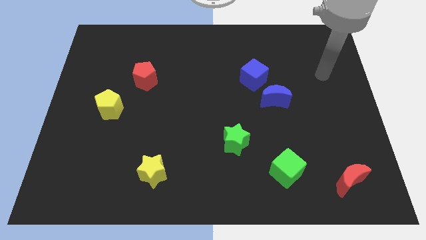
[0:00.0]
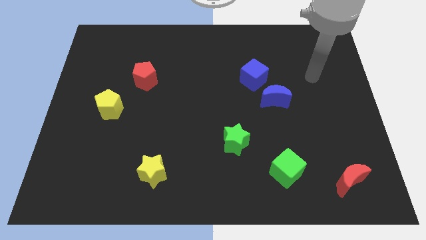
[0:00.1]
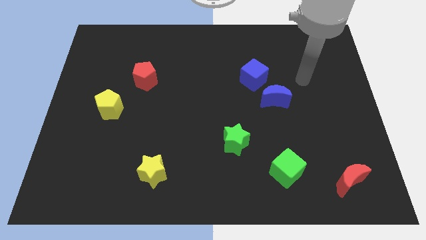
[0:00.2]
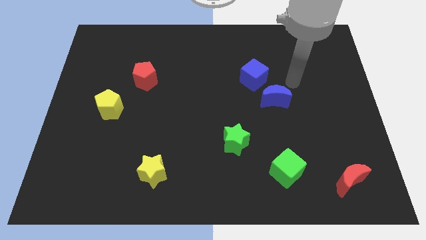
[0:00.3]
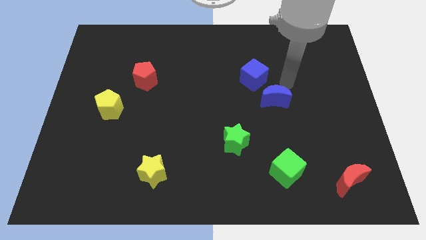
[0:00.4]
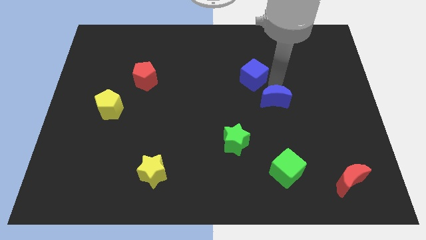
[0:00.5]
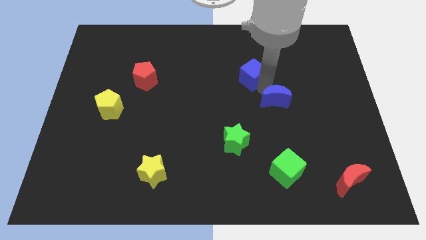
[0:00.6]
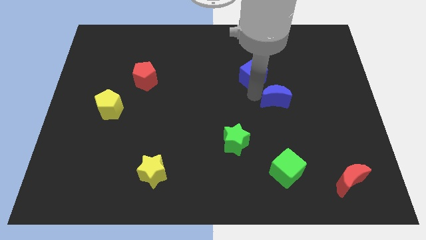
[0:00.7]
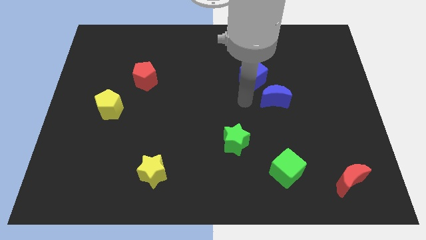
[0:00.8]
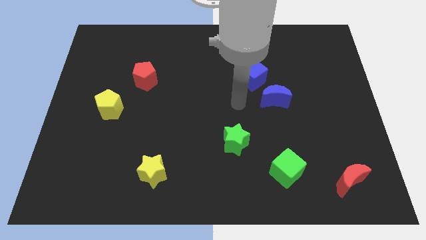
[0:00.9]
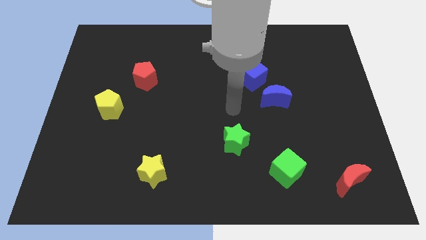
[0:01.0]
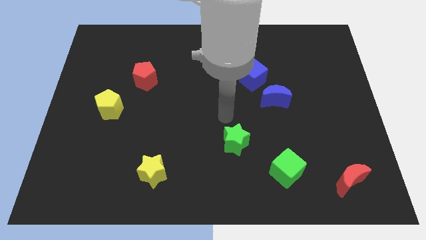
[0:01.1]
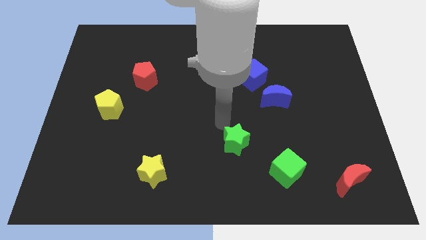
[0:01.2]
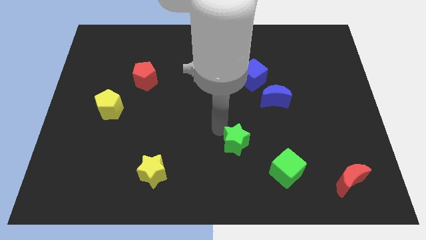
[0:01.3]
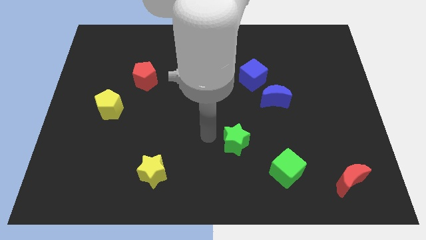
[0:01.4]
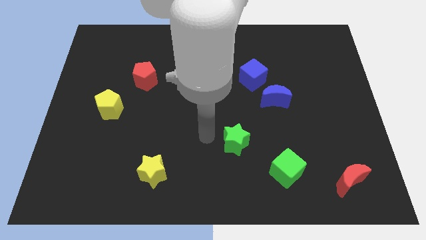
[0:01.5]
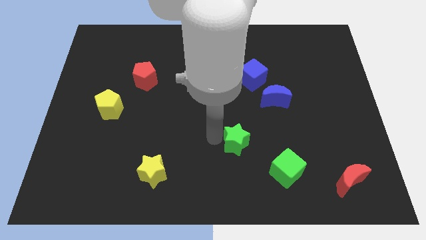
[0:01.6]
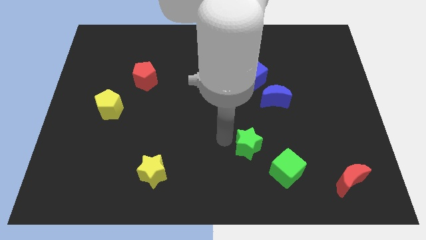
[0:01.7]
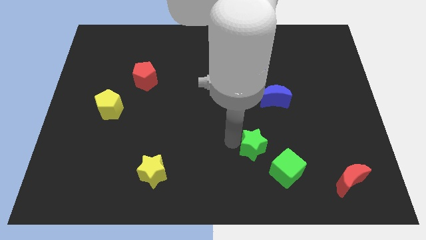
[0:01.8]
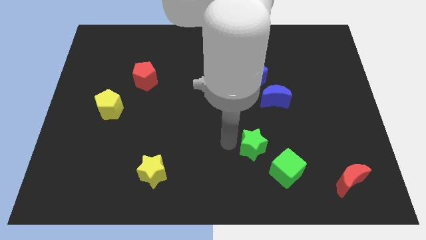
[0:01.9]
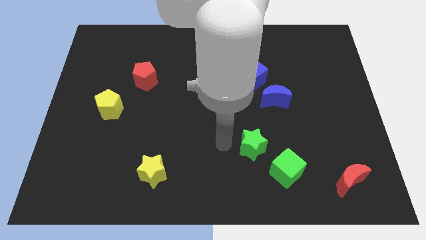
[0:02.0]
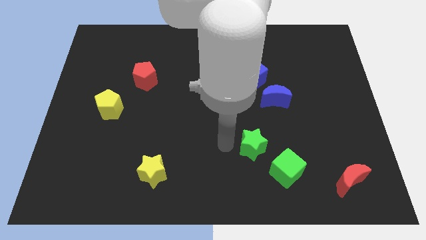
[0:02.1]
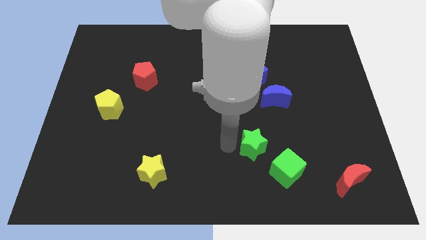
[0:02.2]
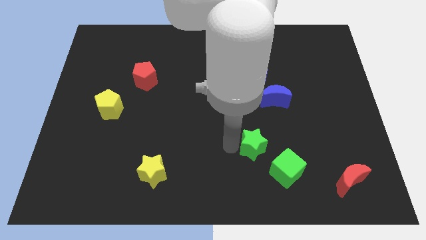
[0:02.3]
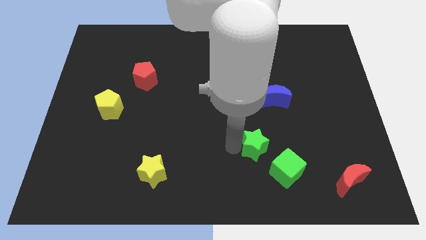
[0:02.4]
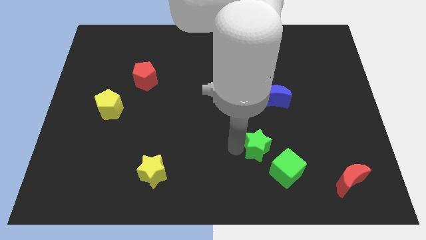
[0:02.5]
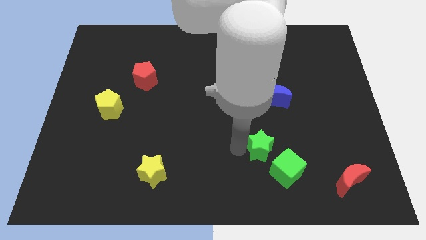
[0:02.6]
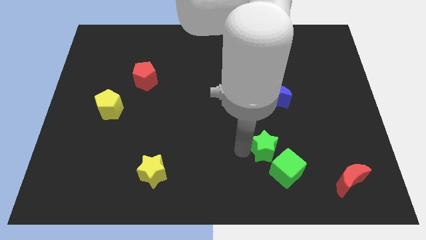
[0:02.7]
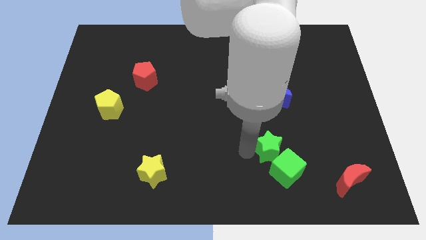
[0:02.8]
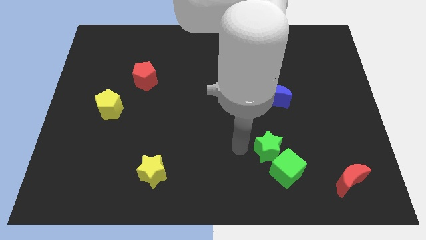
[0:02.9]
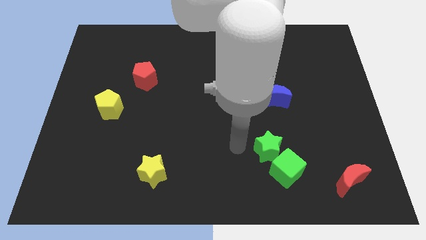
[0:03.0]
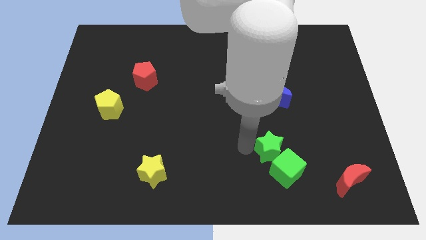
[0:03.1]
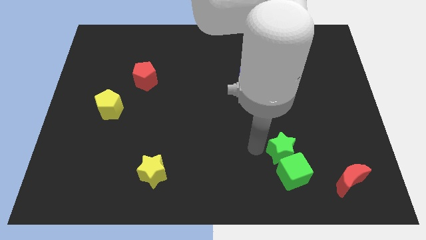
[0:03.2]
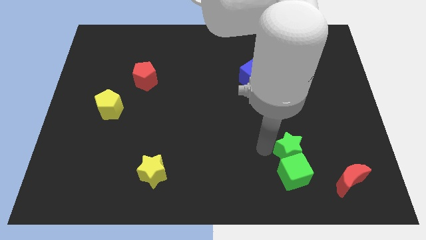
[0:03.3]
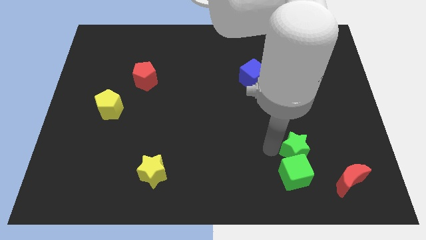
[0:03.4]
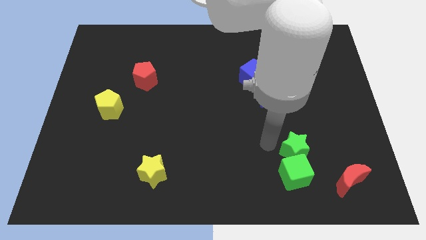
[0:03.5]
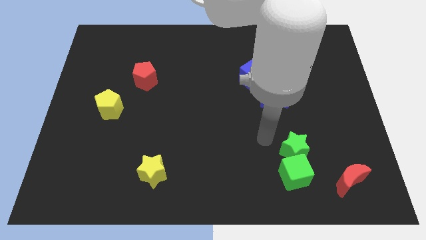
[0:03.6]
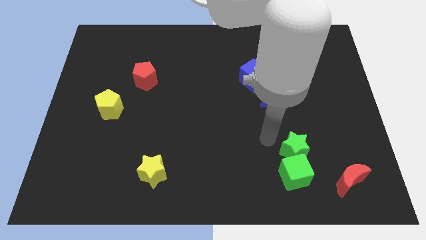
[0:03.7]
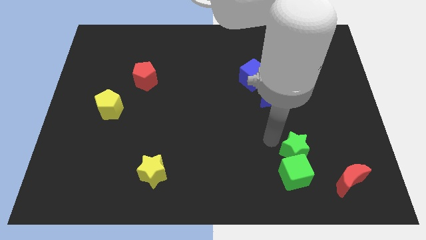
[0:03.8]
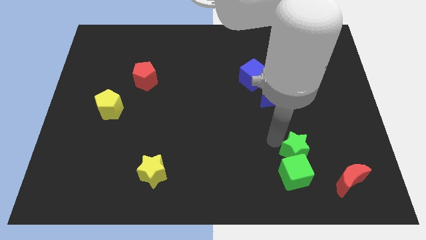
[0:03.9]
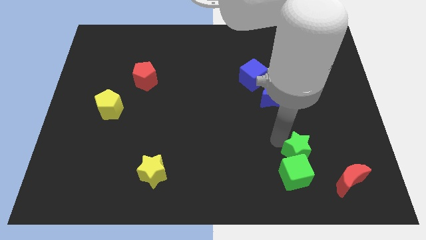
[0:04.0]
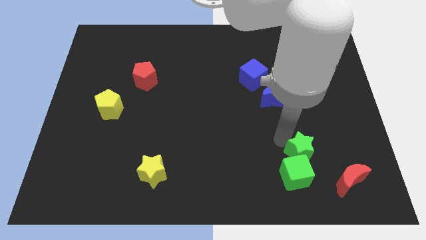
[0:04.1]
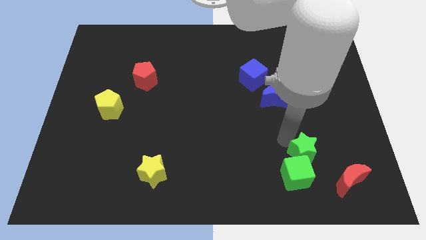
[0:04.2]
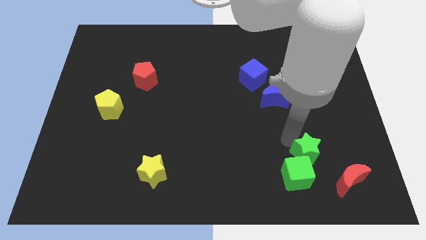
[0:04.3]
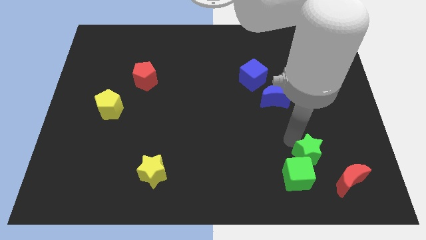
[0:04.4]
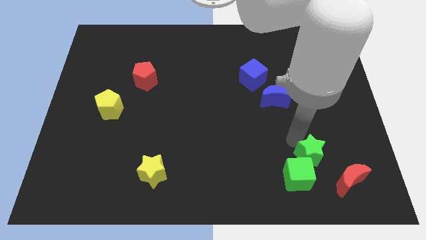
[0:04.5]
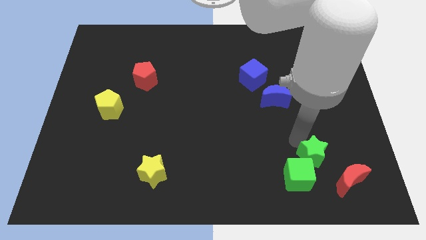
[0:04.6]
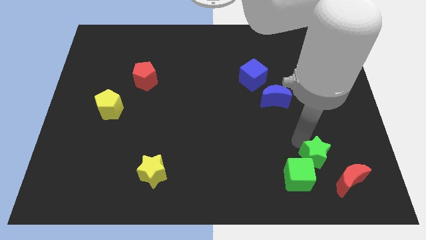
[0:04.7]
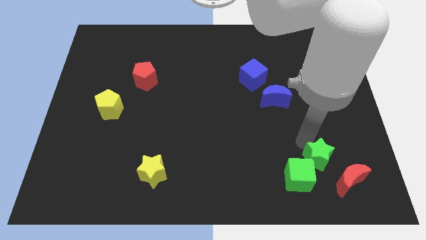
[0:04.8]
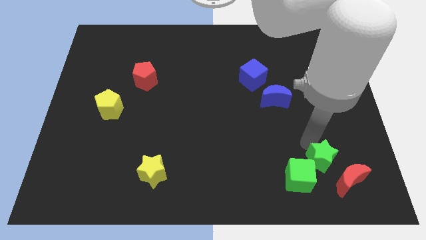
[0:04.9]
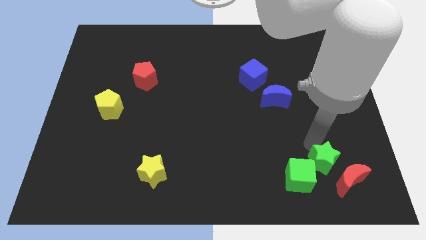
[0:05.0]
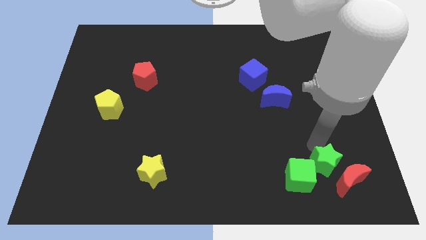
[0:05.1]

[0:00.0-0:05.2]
slide the green star close to the red moon

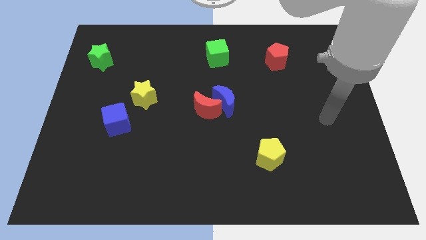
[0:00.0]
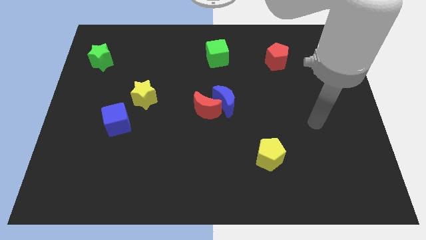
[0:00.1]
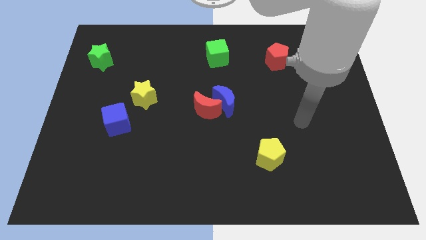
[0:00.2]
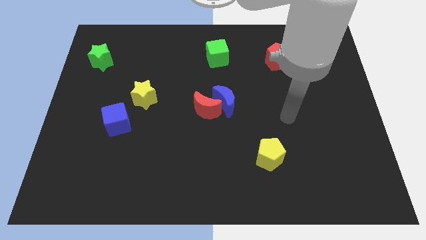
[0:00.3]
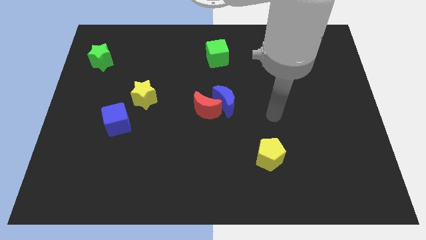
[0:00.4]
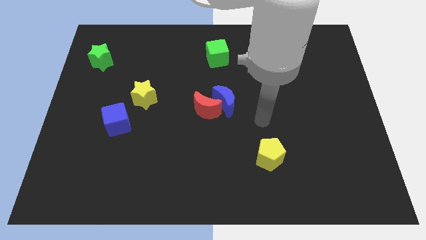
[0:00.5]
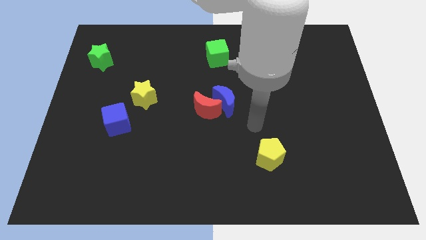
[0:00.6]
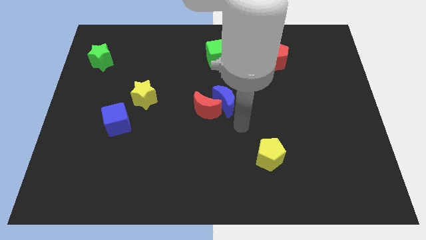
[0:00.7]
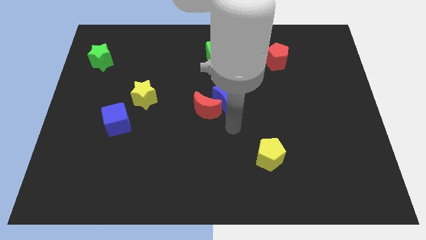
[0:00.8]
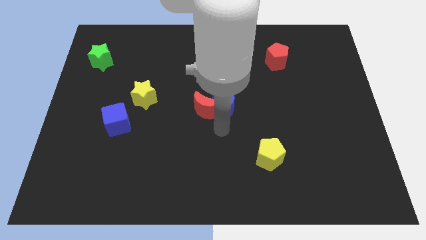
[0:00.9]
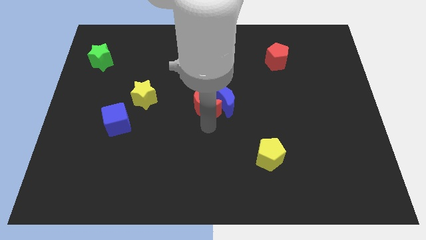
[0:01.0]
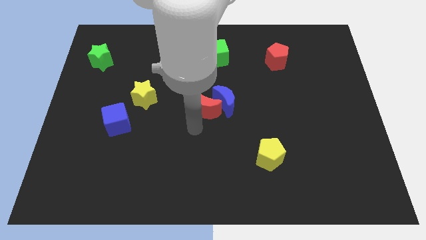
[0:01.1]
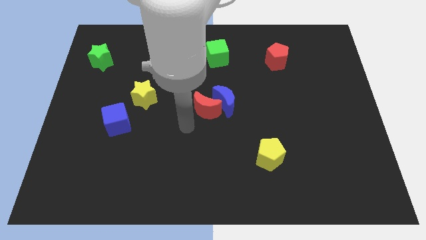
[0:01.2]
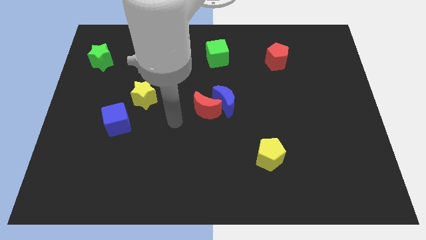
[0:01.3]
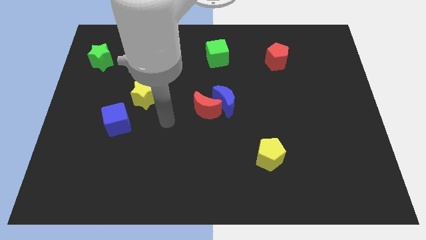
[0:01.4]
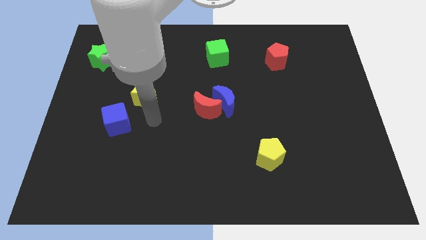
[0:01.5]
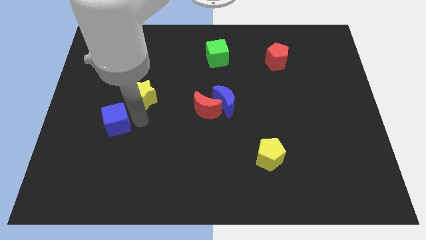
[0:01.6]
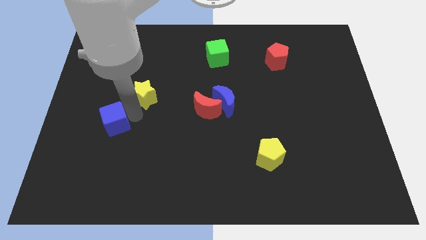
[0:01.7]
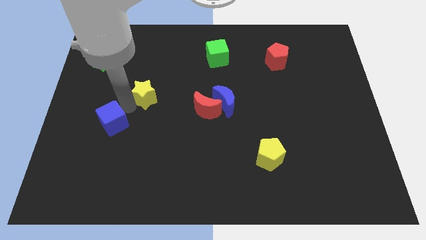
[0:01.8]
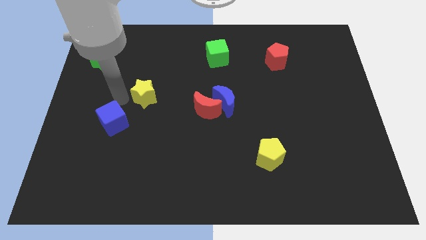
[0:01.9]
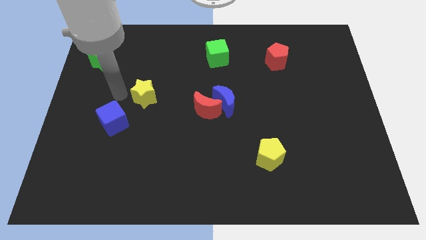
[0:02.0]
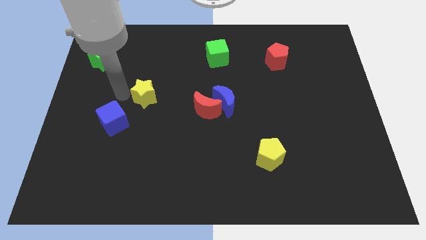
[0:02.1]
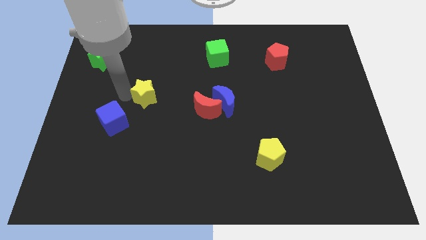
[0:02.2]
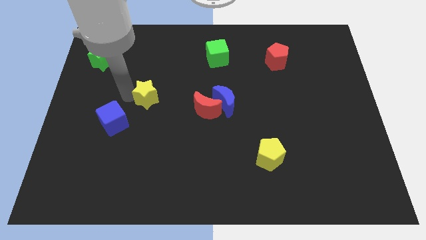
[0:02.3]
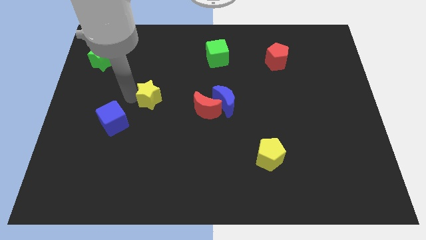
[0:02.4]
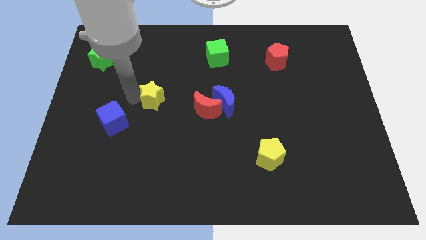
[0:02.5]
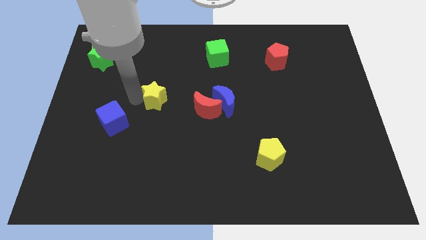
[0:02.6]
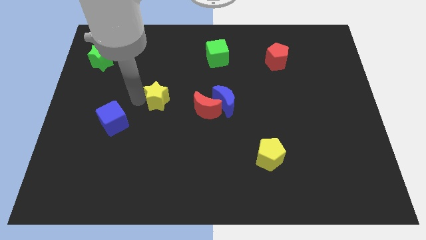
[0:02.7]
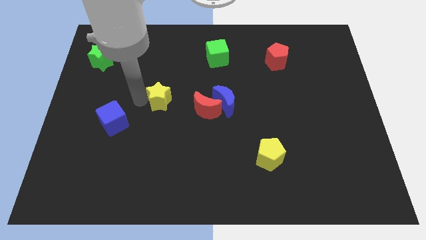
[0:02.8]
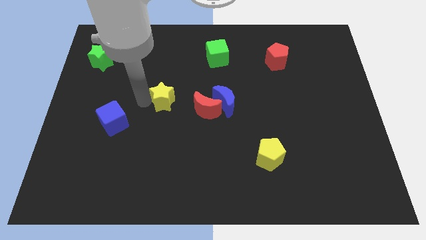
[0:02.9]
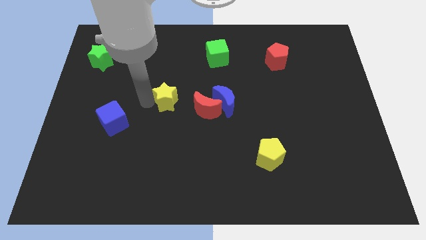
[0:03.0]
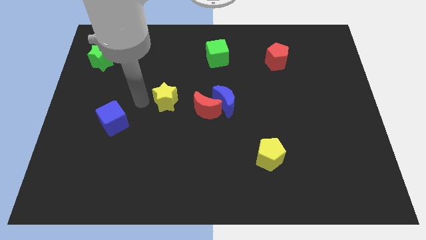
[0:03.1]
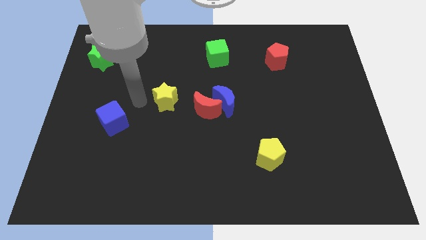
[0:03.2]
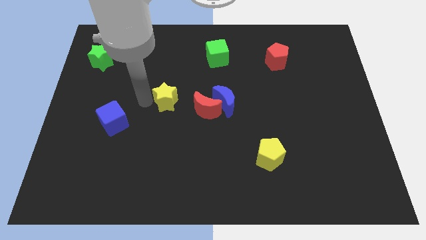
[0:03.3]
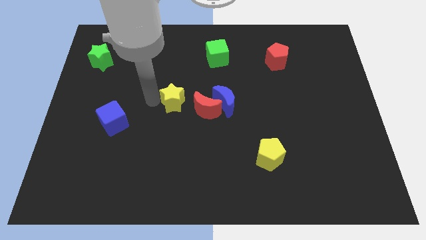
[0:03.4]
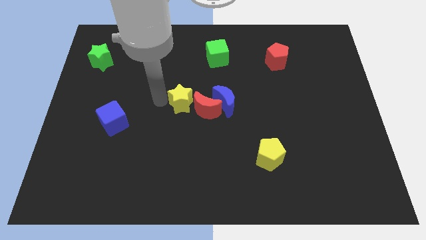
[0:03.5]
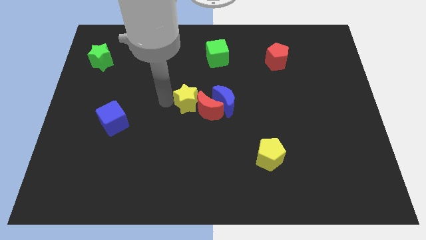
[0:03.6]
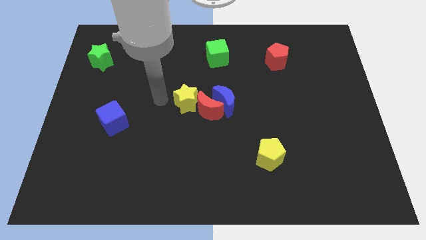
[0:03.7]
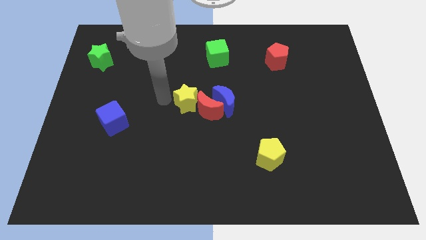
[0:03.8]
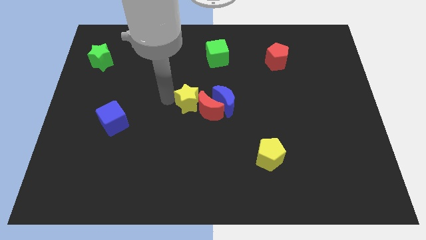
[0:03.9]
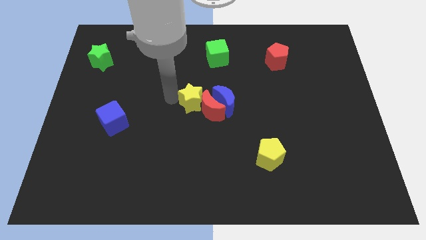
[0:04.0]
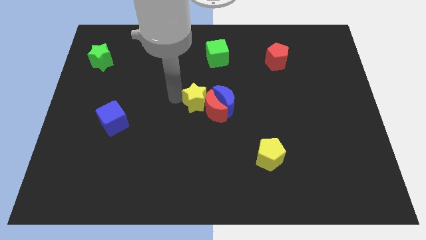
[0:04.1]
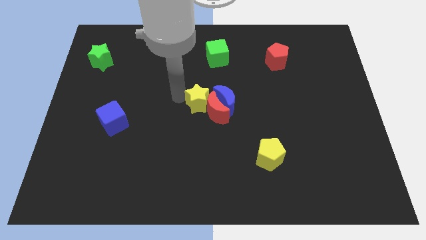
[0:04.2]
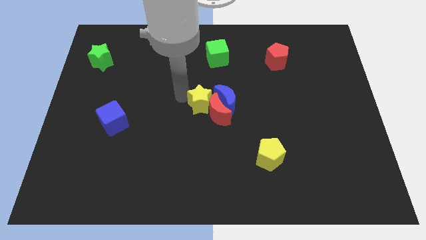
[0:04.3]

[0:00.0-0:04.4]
slide the yellow star towards the blue moon
